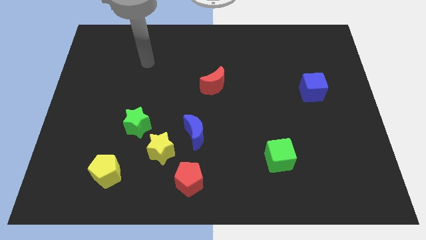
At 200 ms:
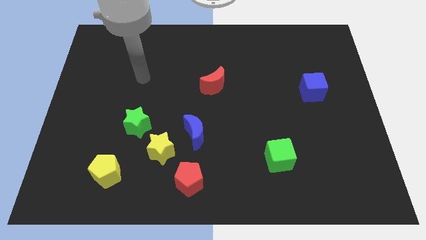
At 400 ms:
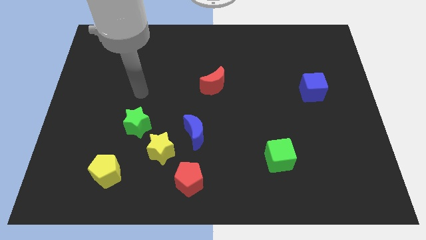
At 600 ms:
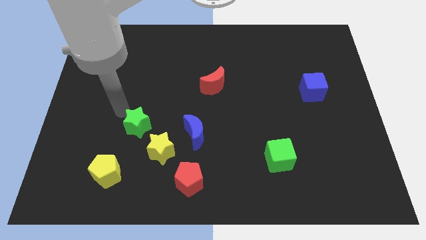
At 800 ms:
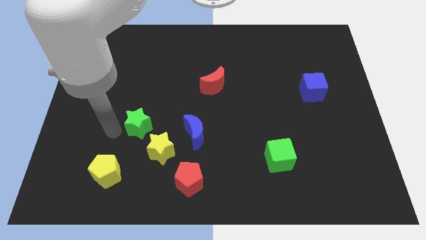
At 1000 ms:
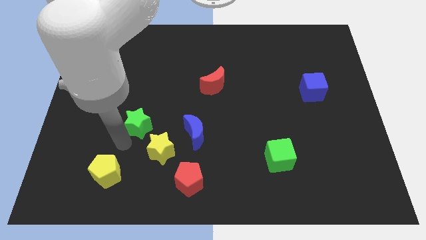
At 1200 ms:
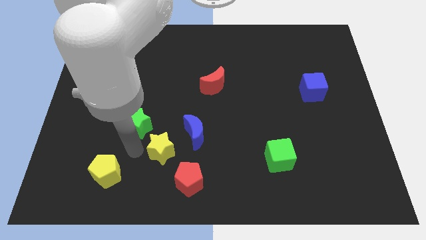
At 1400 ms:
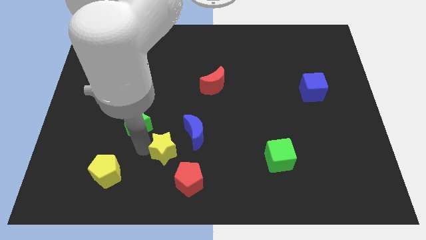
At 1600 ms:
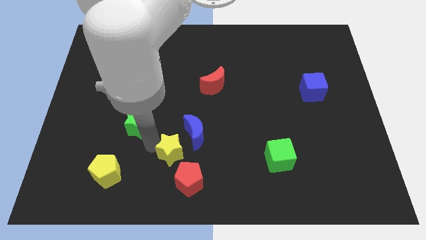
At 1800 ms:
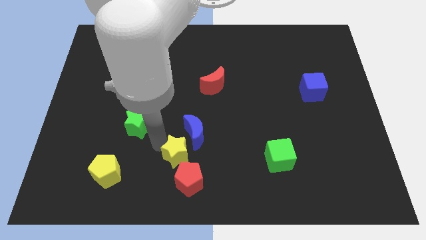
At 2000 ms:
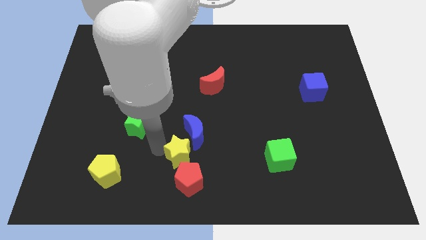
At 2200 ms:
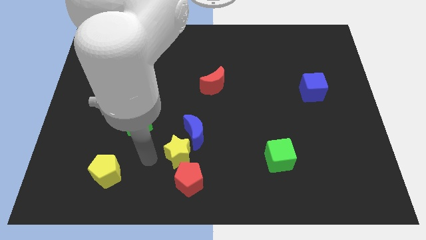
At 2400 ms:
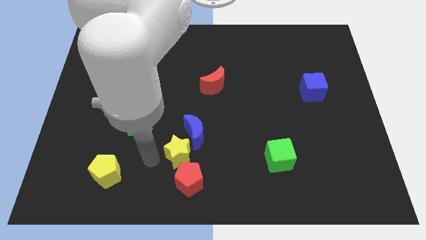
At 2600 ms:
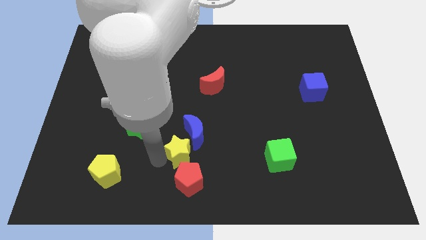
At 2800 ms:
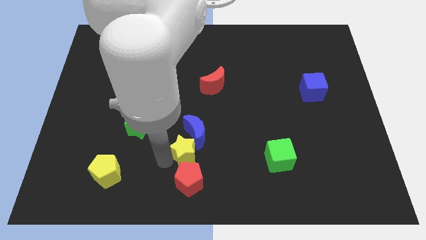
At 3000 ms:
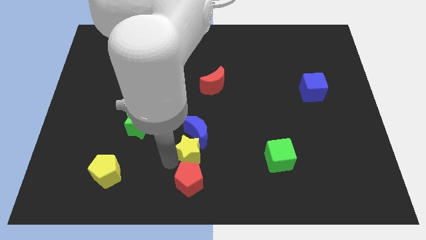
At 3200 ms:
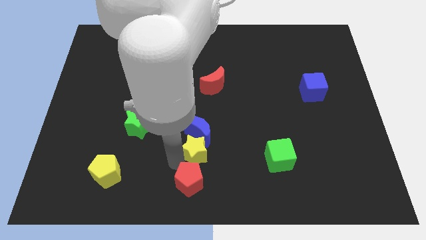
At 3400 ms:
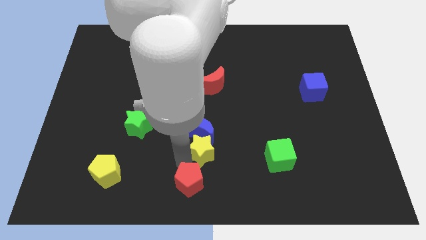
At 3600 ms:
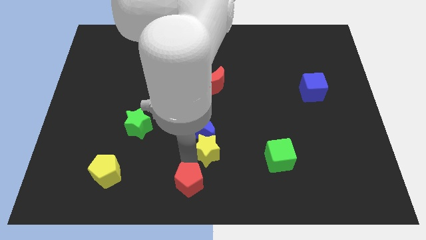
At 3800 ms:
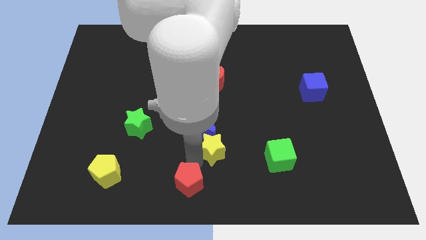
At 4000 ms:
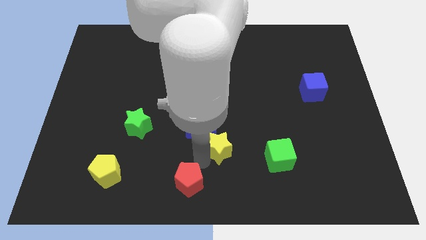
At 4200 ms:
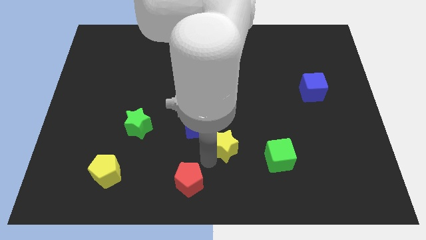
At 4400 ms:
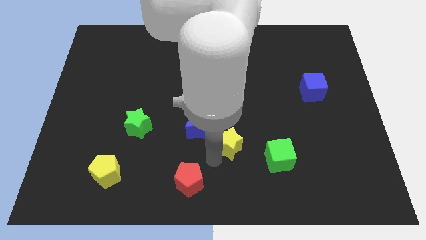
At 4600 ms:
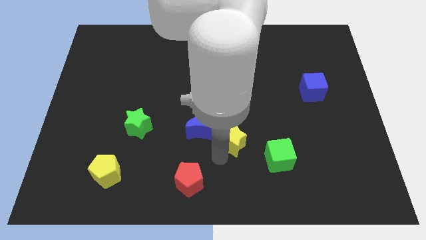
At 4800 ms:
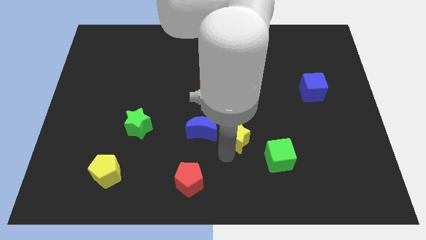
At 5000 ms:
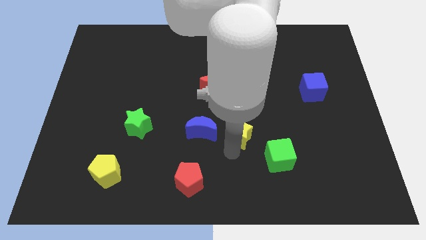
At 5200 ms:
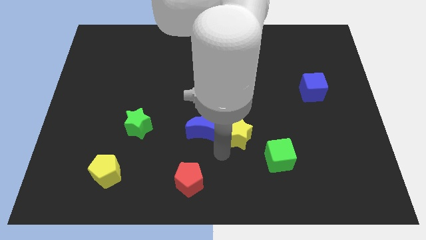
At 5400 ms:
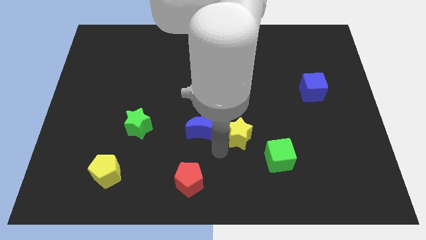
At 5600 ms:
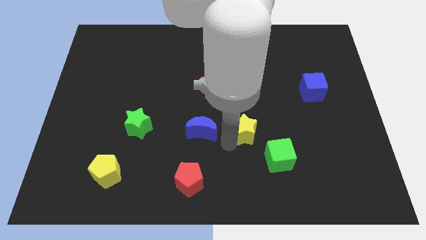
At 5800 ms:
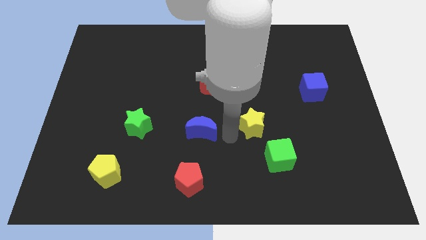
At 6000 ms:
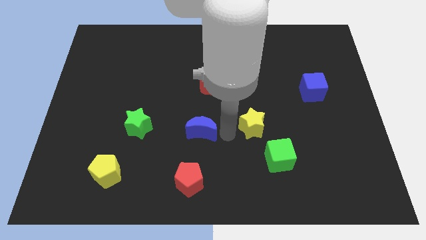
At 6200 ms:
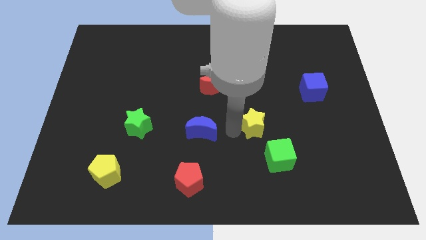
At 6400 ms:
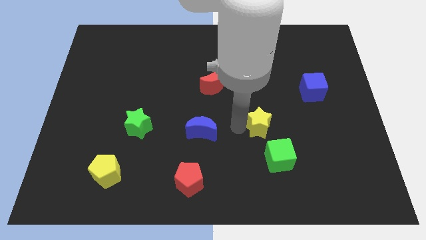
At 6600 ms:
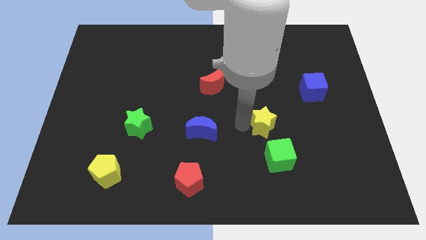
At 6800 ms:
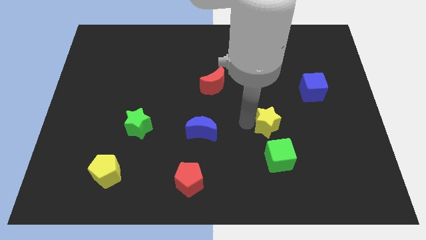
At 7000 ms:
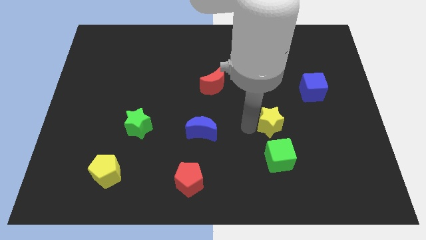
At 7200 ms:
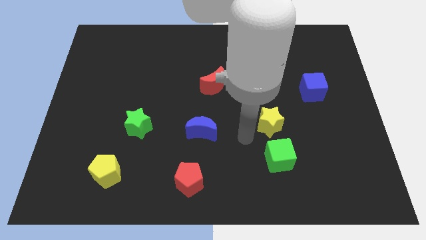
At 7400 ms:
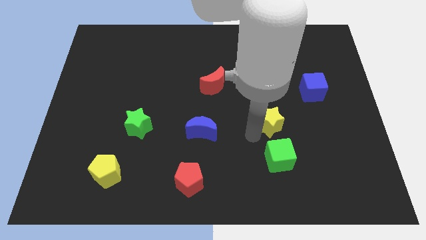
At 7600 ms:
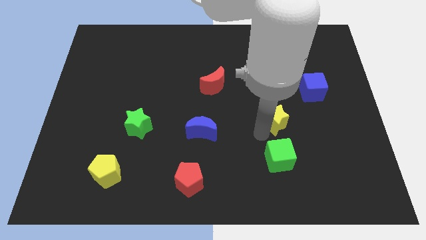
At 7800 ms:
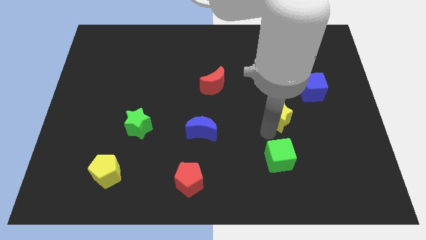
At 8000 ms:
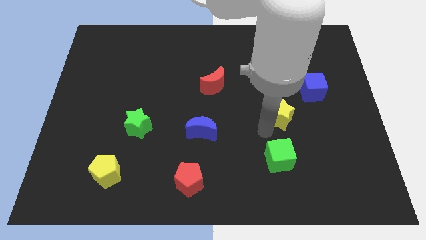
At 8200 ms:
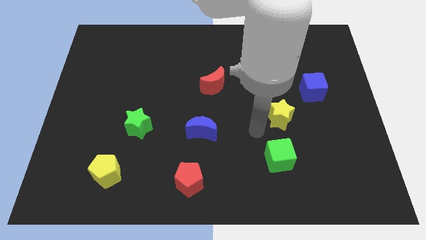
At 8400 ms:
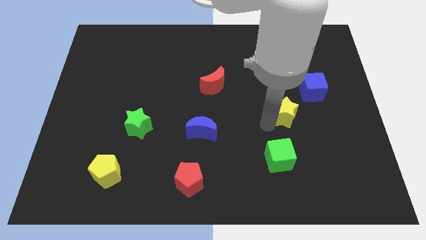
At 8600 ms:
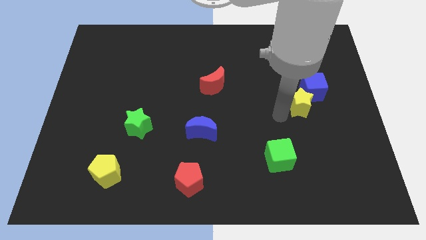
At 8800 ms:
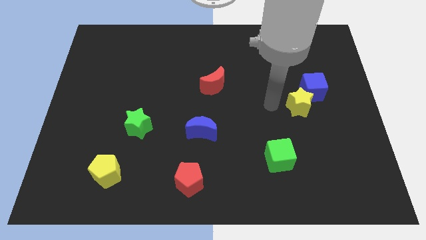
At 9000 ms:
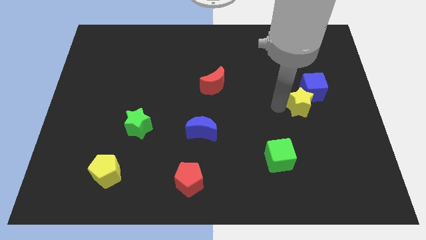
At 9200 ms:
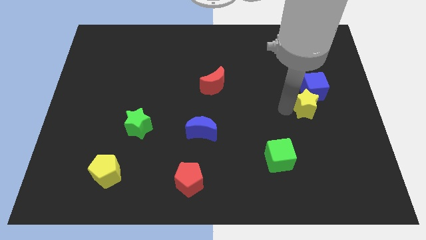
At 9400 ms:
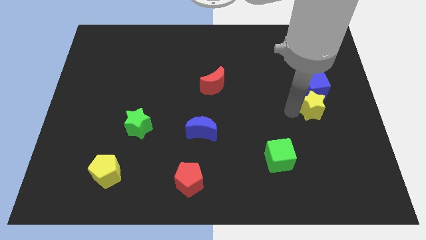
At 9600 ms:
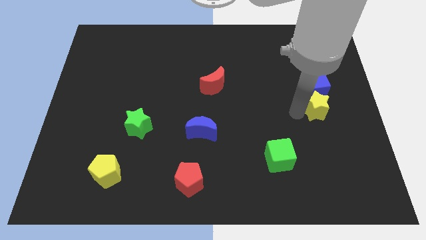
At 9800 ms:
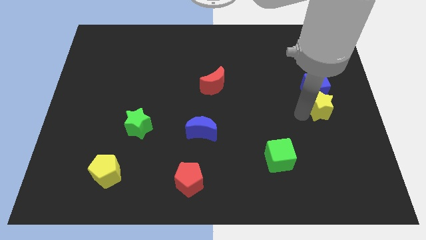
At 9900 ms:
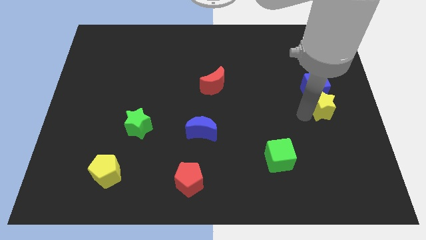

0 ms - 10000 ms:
put the yellow star to the right side of the board

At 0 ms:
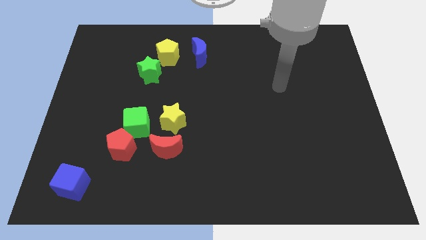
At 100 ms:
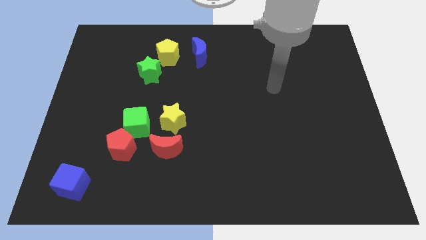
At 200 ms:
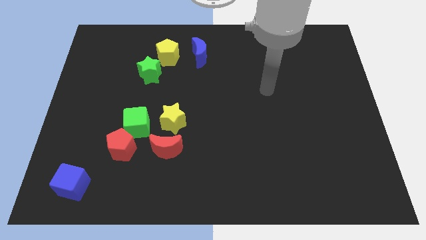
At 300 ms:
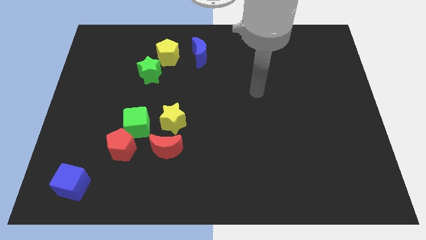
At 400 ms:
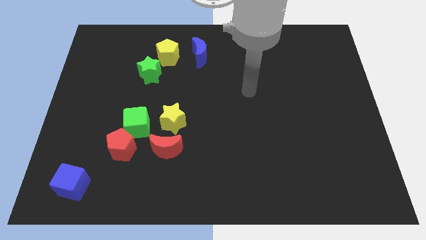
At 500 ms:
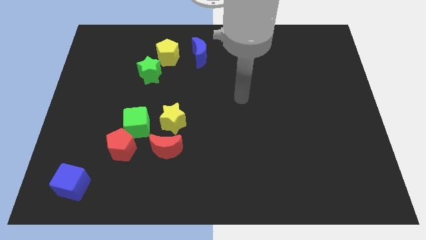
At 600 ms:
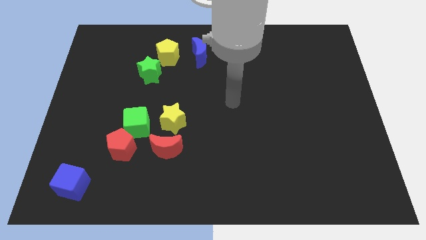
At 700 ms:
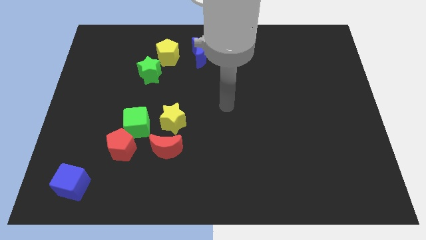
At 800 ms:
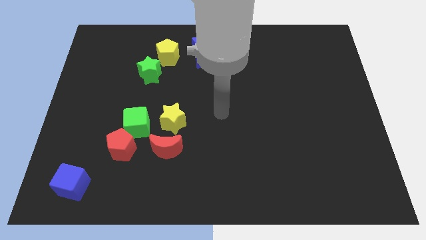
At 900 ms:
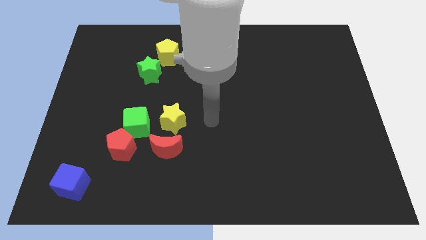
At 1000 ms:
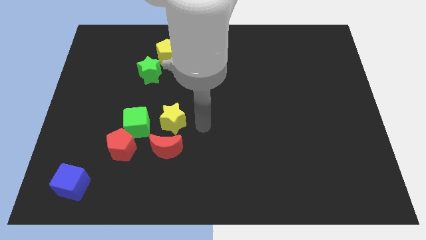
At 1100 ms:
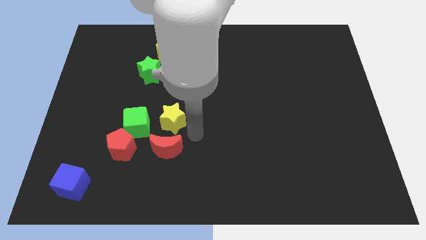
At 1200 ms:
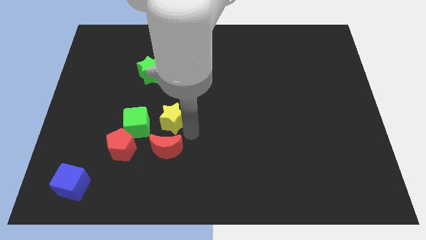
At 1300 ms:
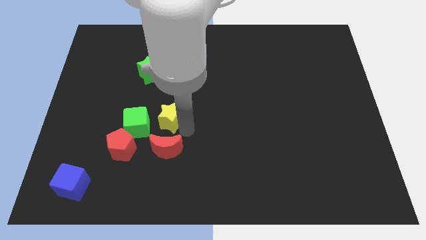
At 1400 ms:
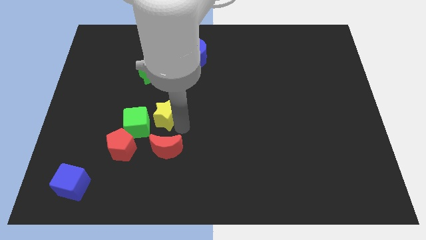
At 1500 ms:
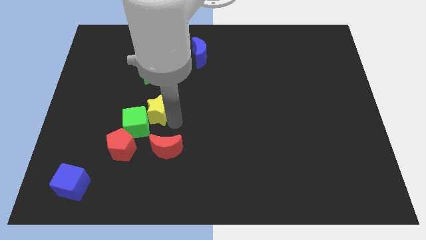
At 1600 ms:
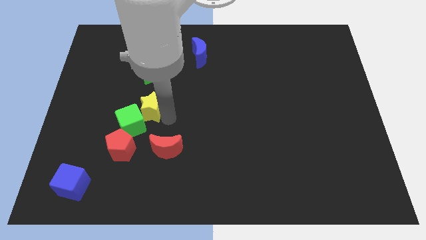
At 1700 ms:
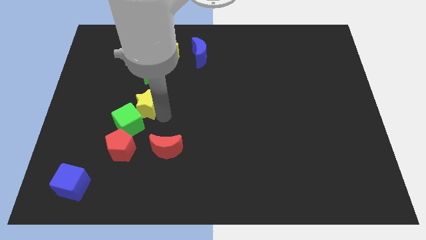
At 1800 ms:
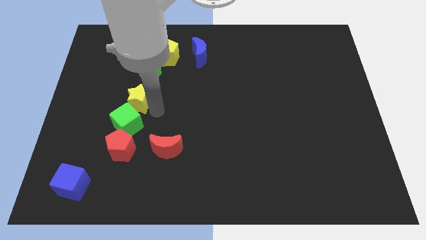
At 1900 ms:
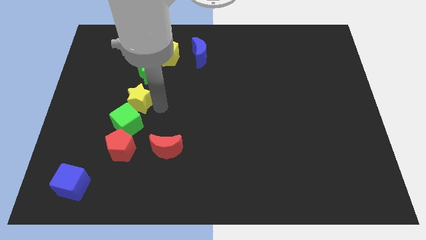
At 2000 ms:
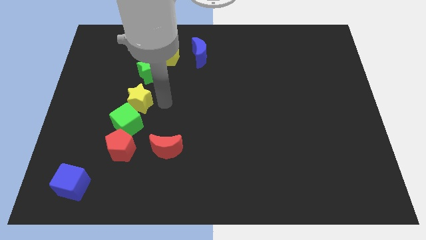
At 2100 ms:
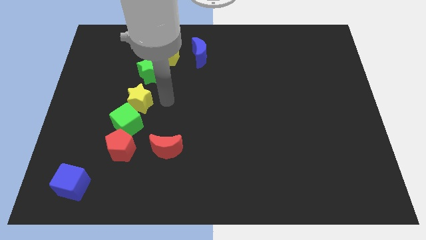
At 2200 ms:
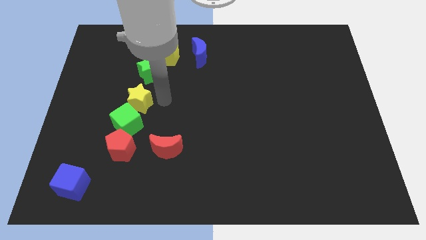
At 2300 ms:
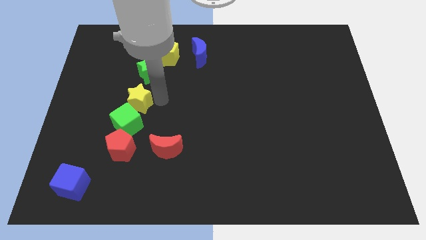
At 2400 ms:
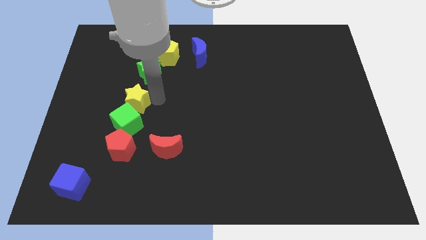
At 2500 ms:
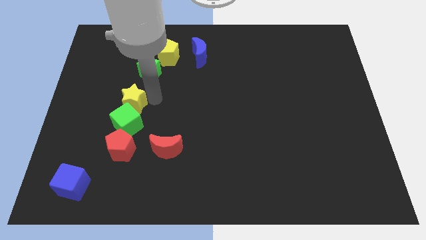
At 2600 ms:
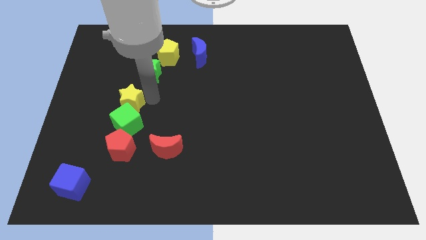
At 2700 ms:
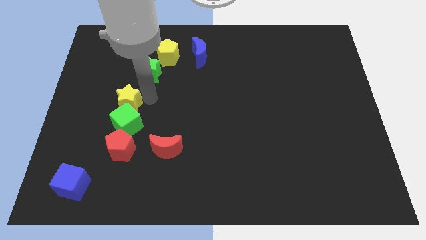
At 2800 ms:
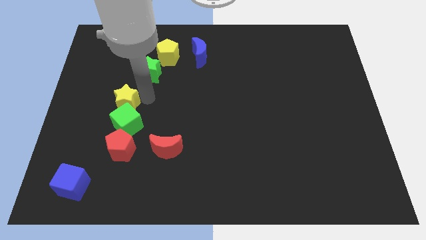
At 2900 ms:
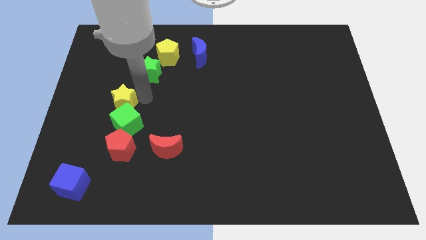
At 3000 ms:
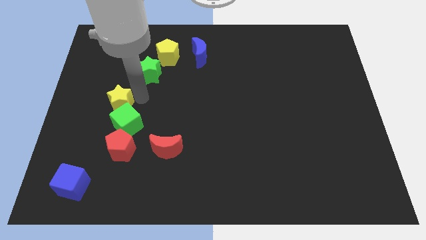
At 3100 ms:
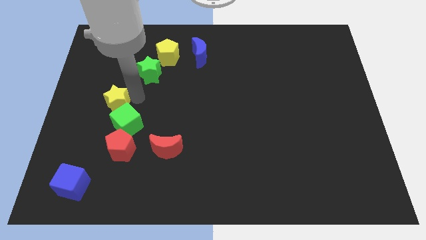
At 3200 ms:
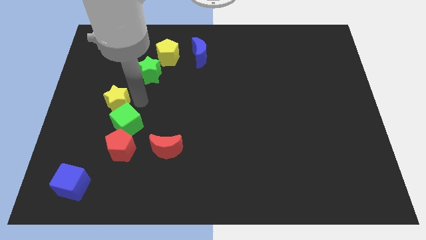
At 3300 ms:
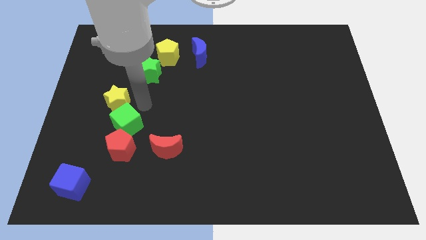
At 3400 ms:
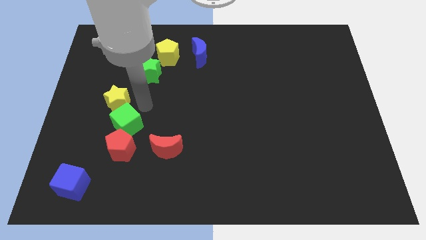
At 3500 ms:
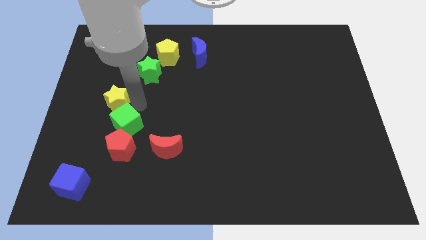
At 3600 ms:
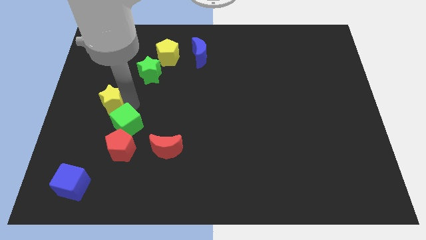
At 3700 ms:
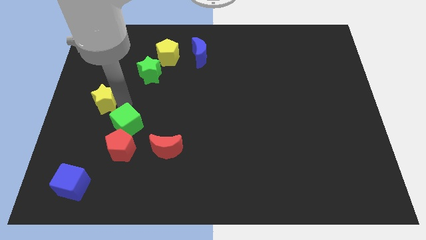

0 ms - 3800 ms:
move the yellow star to the left side
